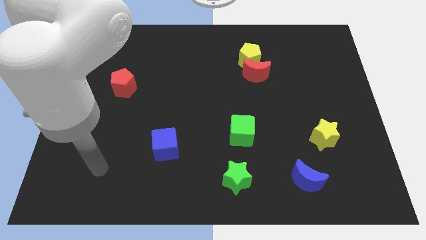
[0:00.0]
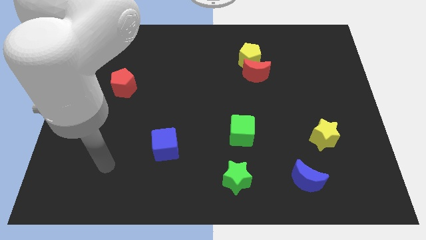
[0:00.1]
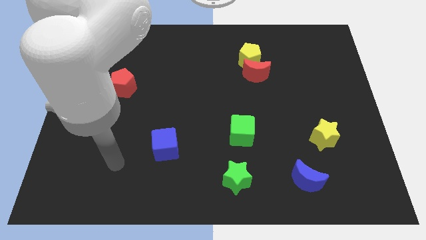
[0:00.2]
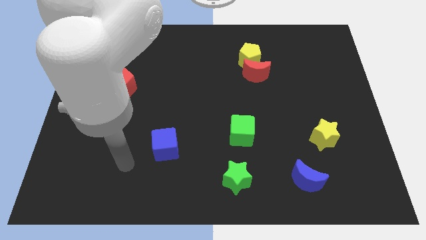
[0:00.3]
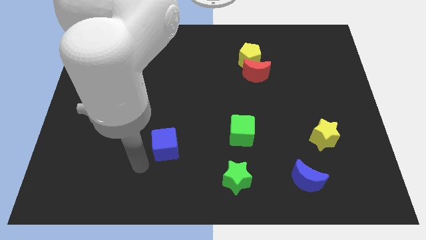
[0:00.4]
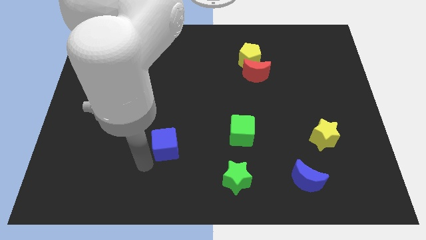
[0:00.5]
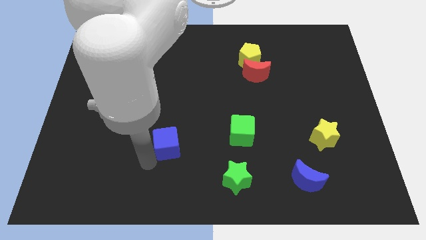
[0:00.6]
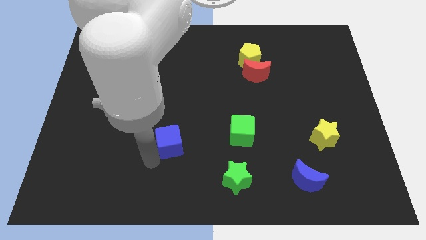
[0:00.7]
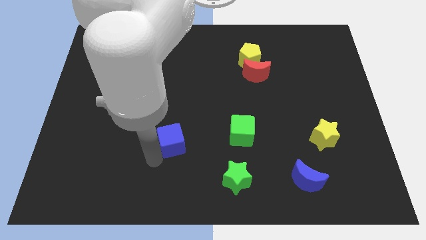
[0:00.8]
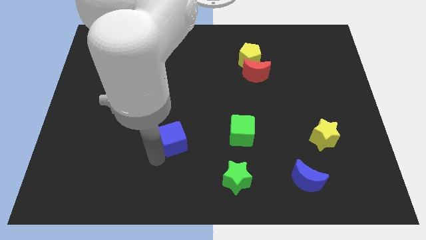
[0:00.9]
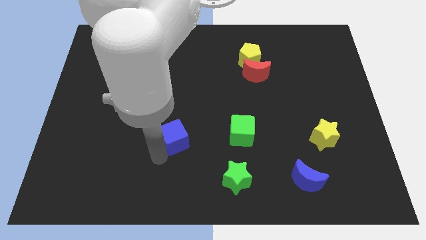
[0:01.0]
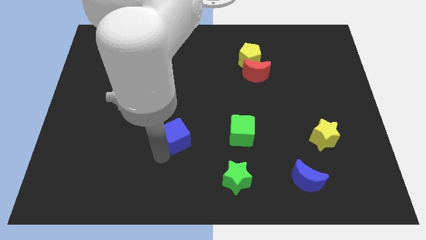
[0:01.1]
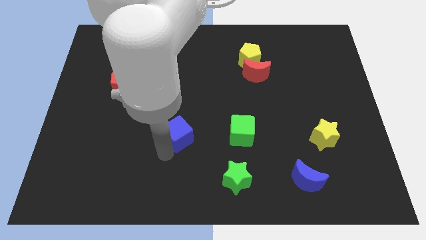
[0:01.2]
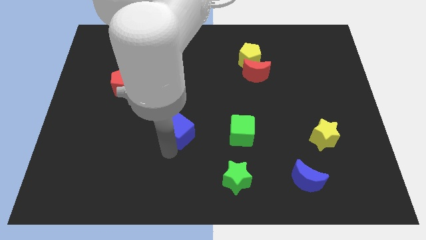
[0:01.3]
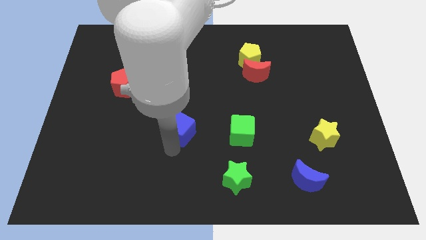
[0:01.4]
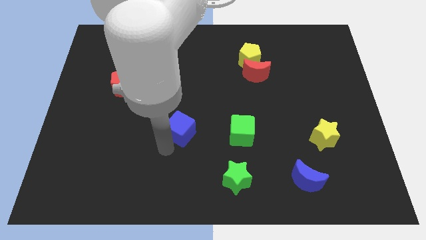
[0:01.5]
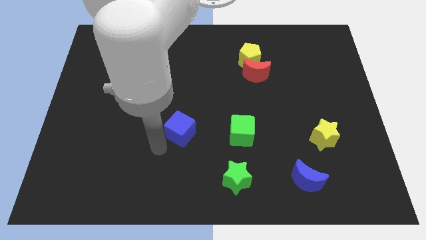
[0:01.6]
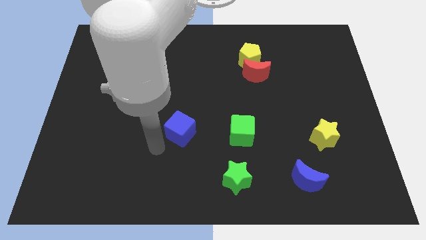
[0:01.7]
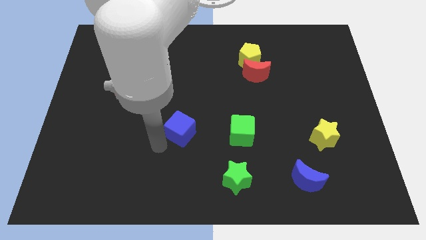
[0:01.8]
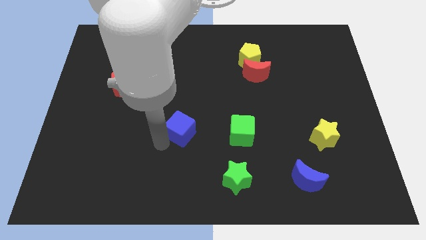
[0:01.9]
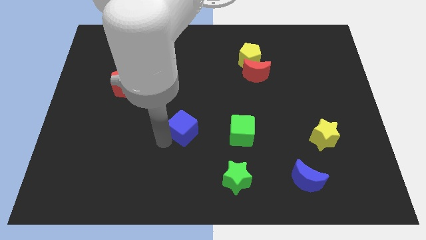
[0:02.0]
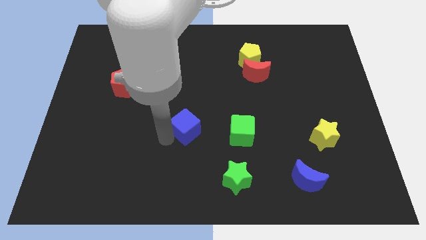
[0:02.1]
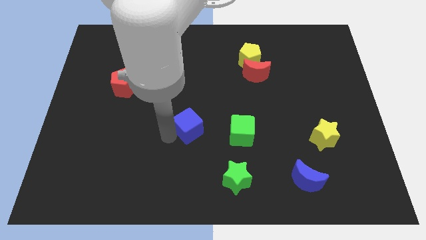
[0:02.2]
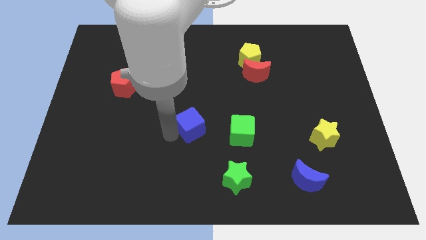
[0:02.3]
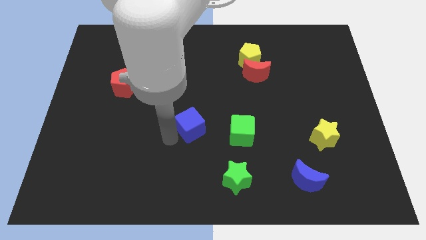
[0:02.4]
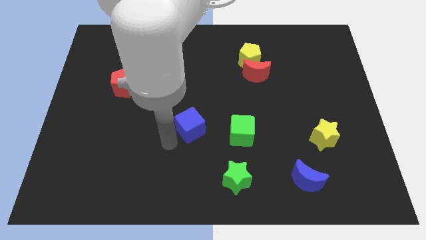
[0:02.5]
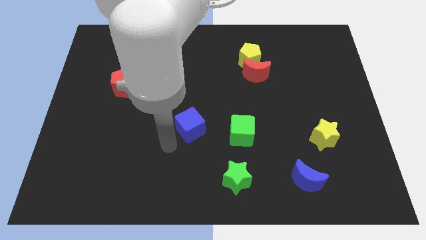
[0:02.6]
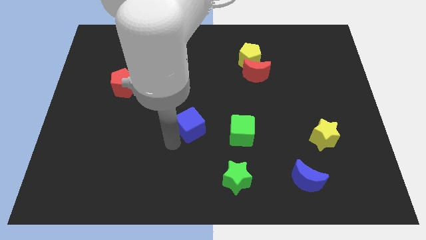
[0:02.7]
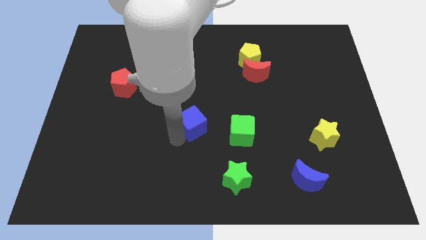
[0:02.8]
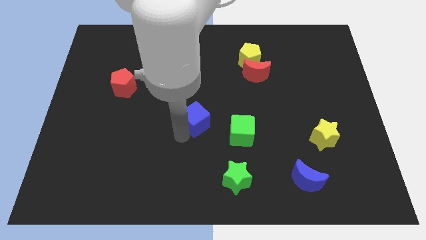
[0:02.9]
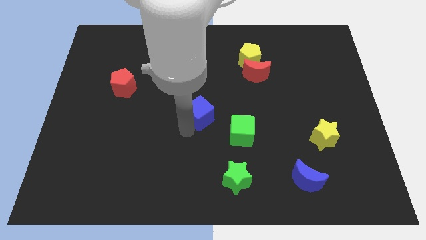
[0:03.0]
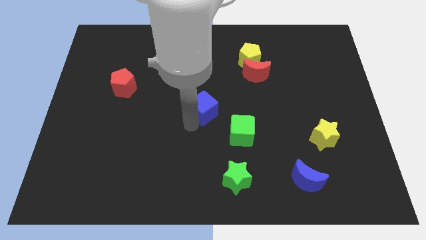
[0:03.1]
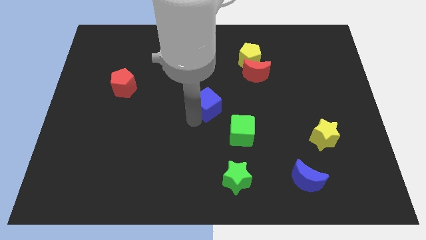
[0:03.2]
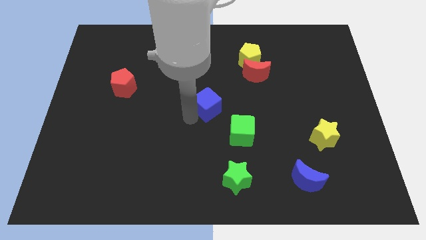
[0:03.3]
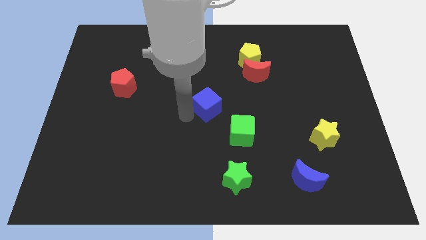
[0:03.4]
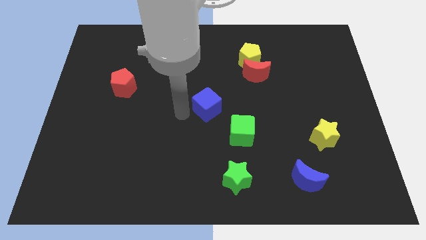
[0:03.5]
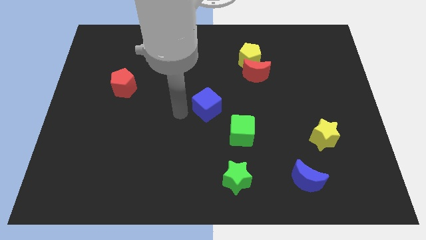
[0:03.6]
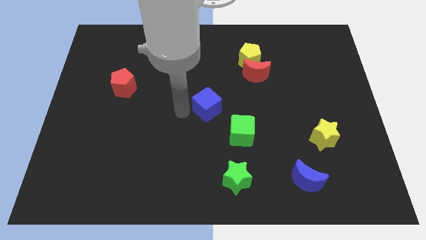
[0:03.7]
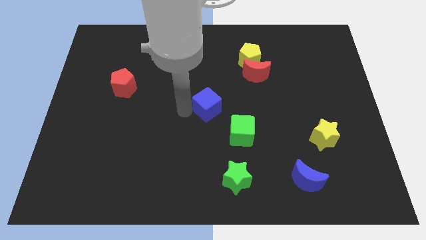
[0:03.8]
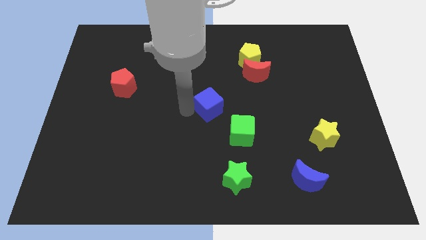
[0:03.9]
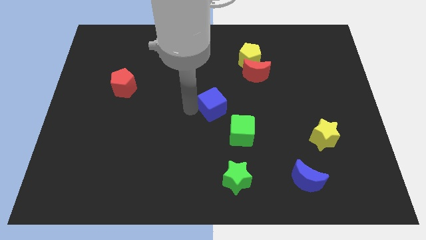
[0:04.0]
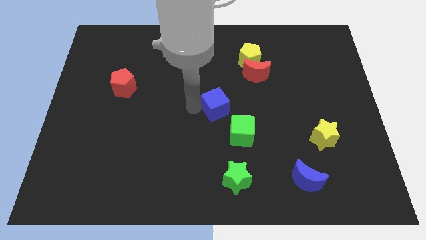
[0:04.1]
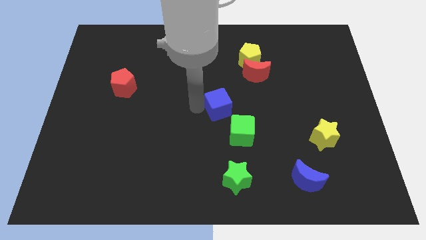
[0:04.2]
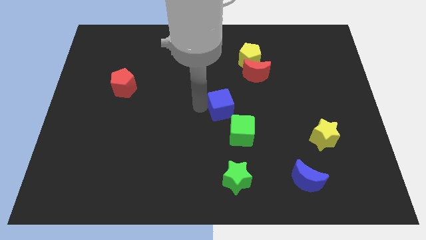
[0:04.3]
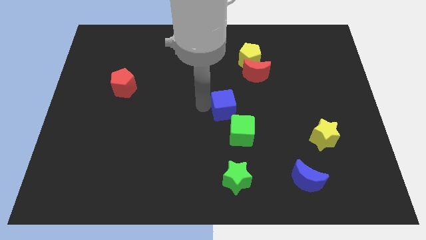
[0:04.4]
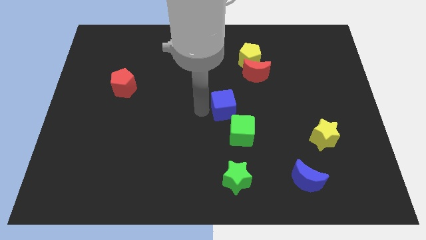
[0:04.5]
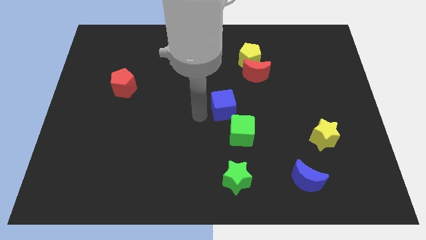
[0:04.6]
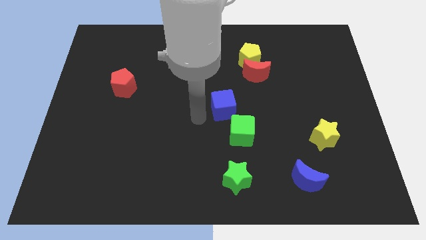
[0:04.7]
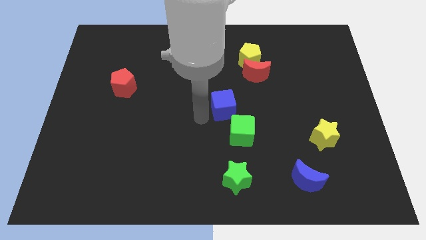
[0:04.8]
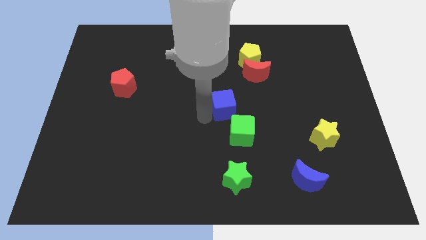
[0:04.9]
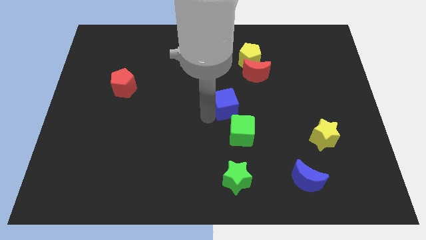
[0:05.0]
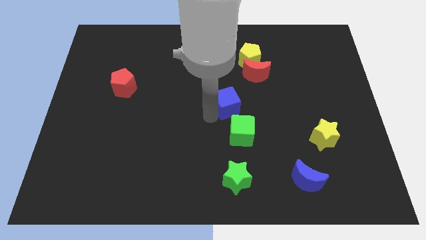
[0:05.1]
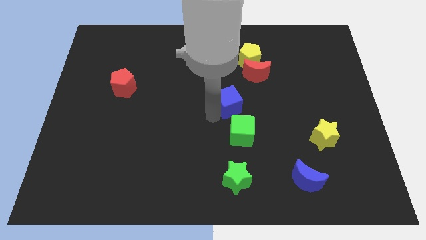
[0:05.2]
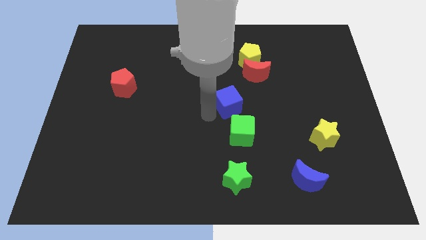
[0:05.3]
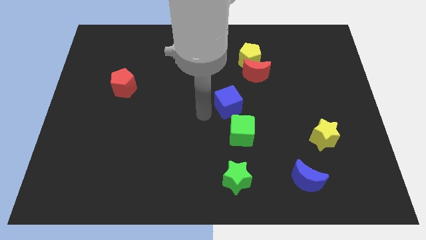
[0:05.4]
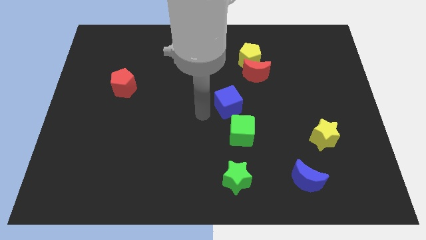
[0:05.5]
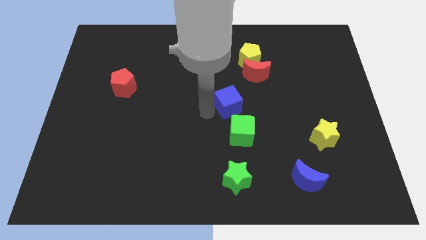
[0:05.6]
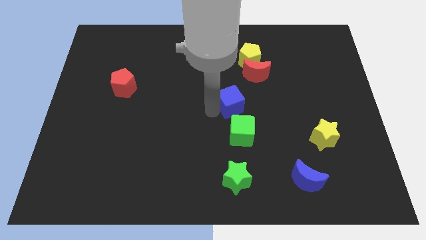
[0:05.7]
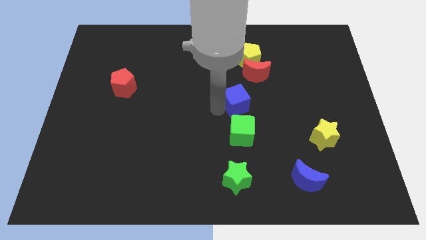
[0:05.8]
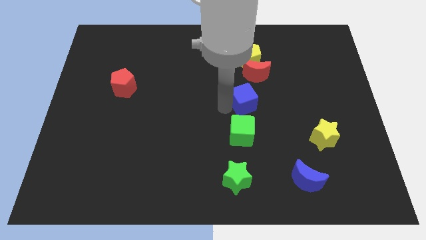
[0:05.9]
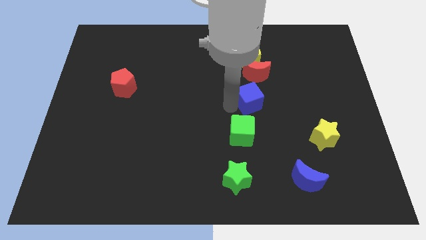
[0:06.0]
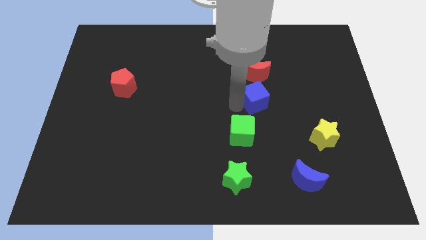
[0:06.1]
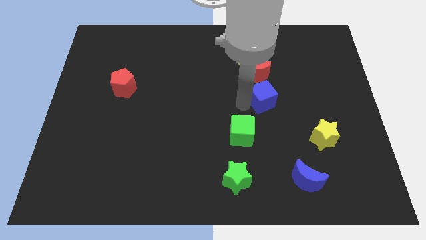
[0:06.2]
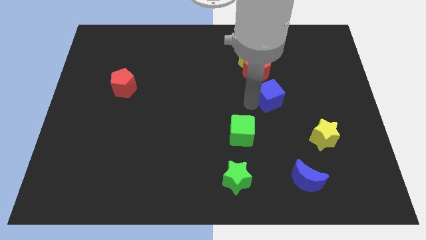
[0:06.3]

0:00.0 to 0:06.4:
push the blue cube diagonally down and to the right of the red moon
